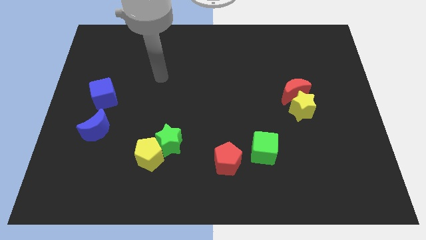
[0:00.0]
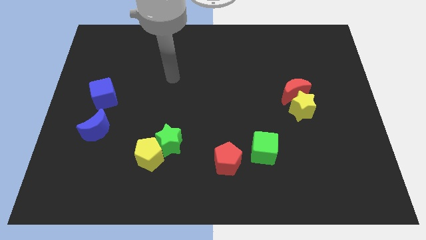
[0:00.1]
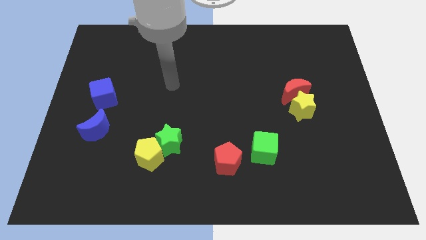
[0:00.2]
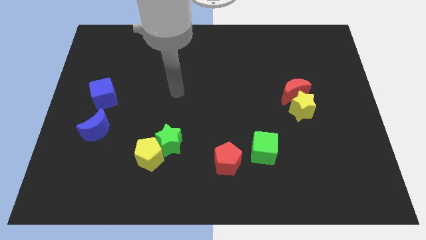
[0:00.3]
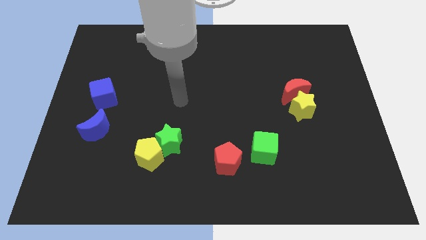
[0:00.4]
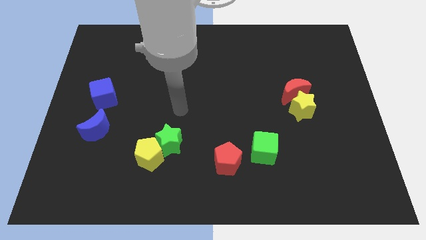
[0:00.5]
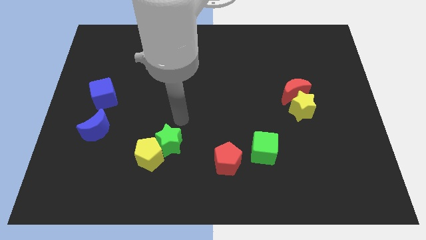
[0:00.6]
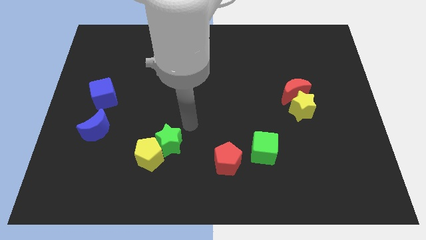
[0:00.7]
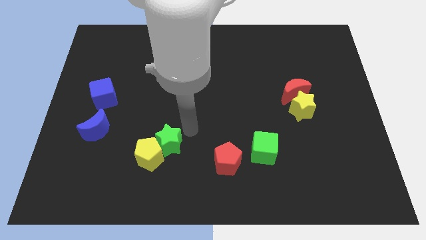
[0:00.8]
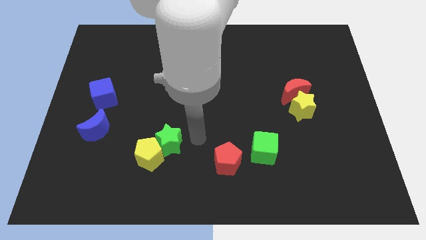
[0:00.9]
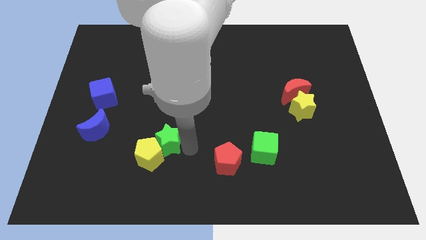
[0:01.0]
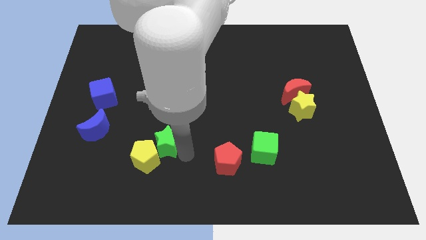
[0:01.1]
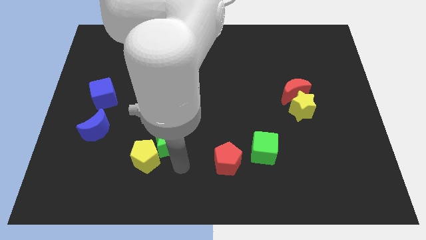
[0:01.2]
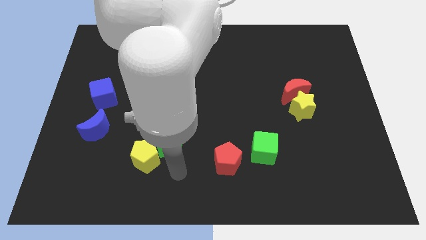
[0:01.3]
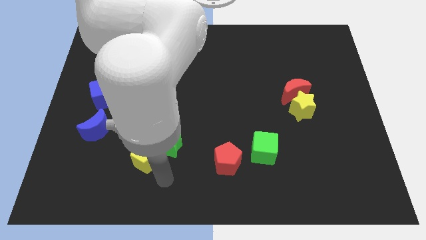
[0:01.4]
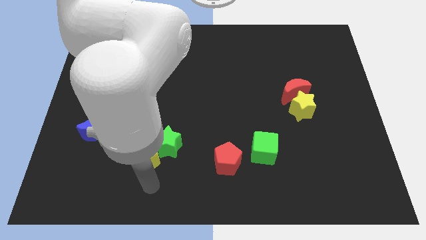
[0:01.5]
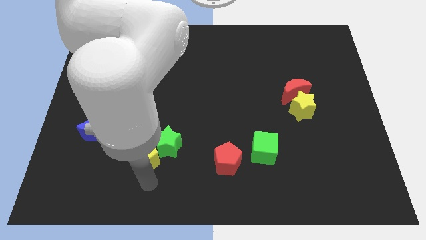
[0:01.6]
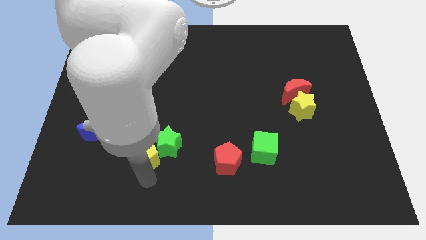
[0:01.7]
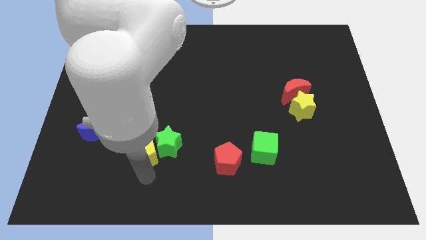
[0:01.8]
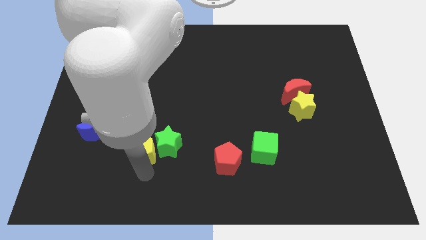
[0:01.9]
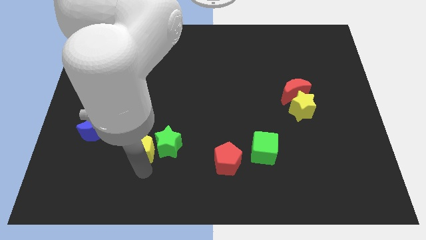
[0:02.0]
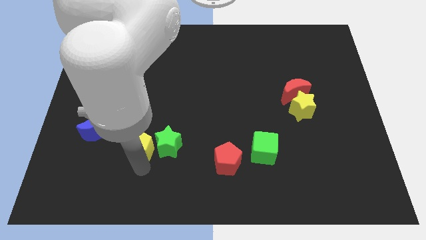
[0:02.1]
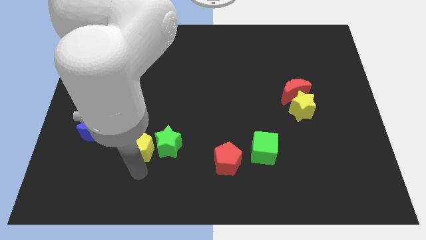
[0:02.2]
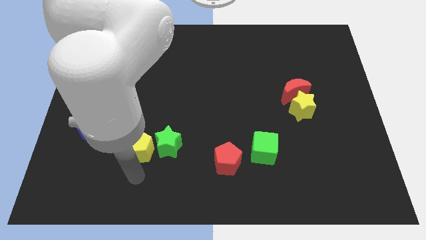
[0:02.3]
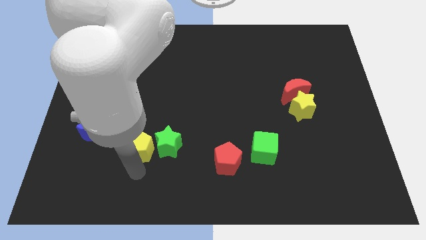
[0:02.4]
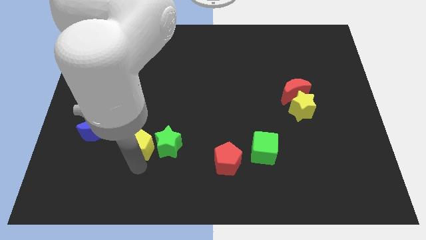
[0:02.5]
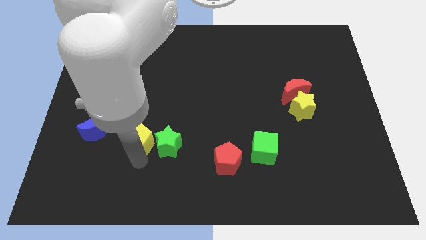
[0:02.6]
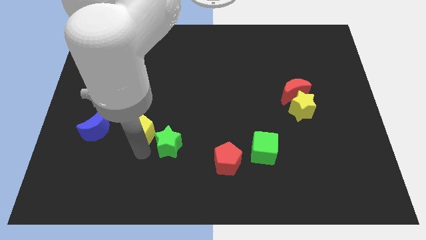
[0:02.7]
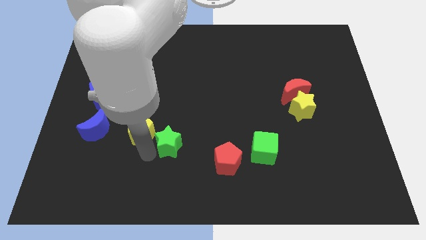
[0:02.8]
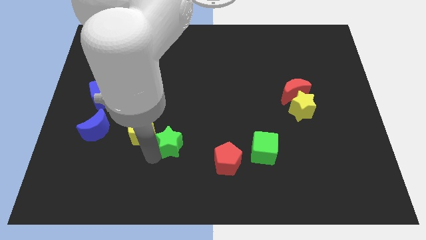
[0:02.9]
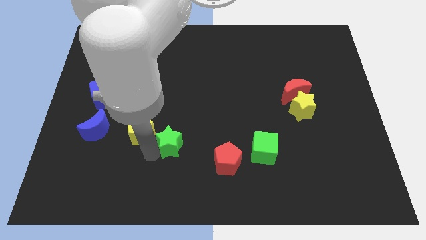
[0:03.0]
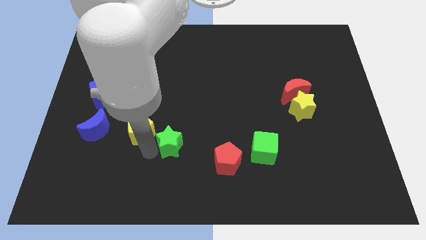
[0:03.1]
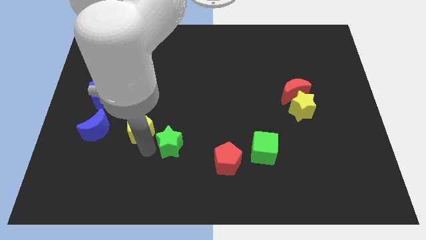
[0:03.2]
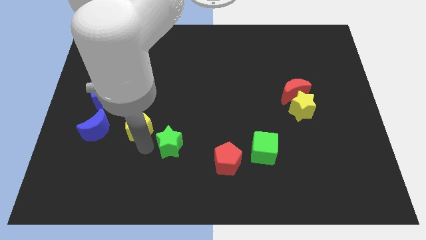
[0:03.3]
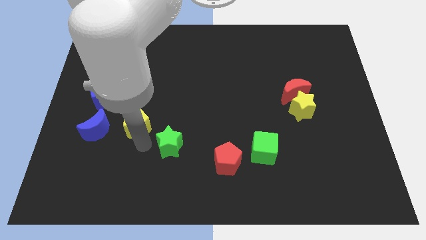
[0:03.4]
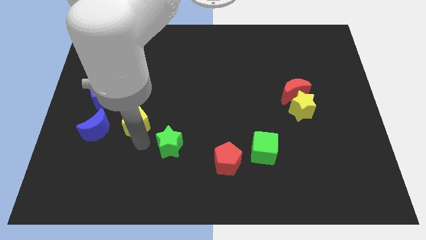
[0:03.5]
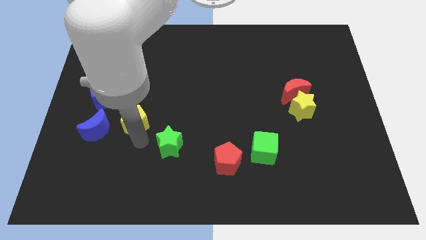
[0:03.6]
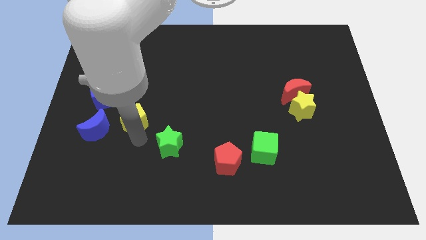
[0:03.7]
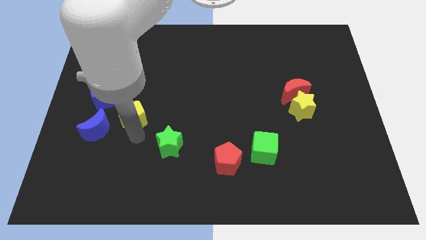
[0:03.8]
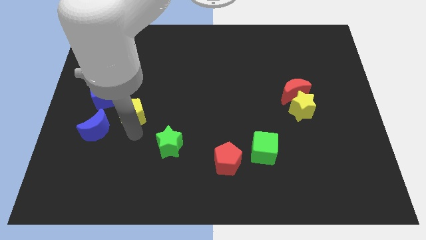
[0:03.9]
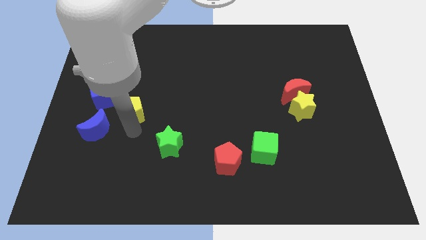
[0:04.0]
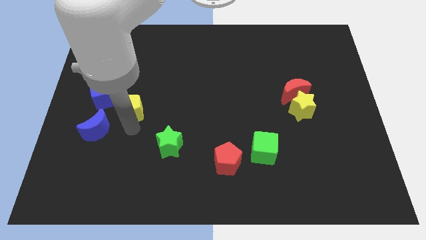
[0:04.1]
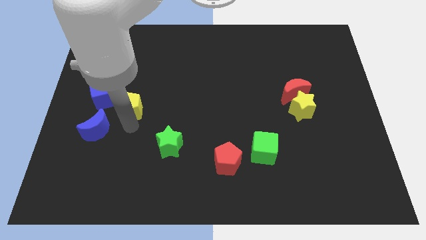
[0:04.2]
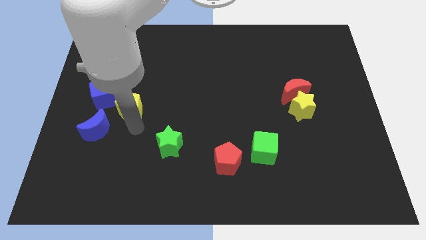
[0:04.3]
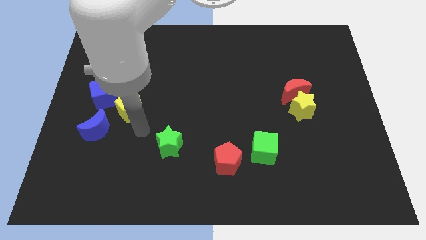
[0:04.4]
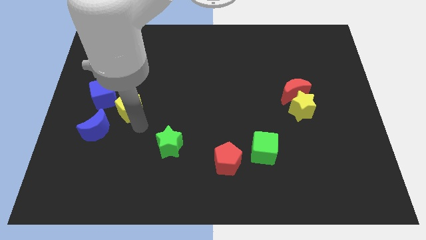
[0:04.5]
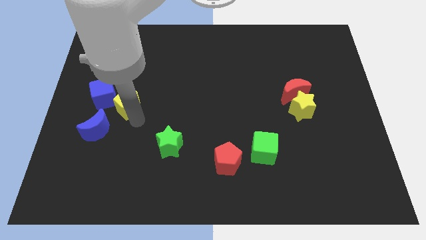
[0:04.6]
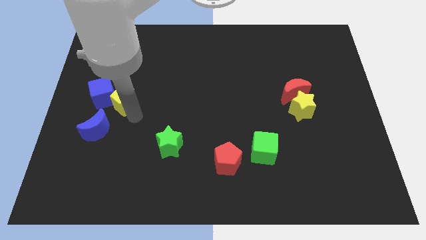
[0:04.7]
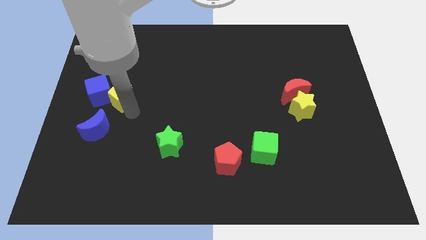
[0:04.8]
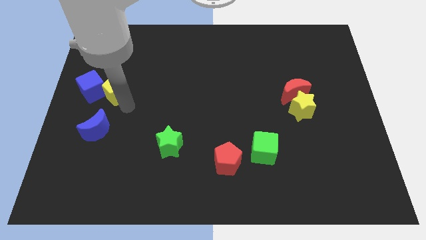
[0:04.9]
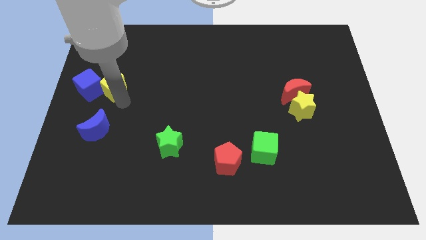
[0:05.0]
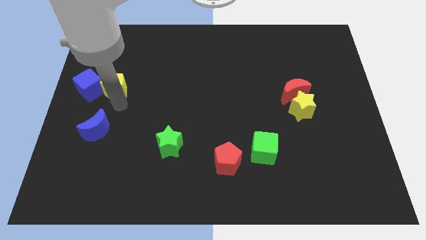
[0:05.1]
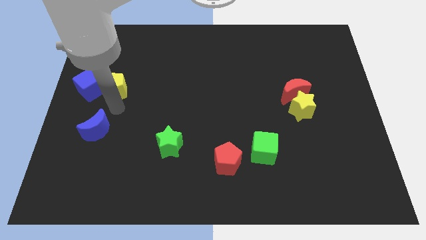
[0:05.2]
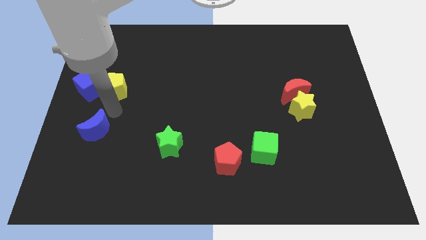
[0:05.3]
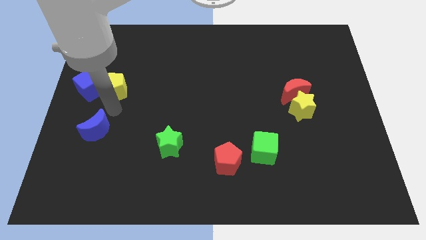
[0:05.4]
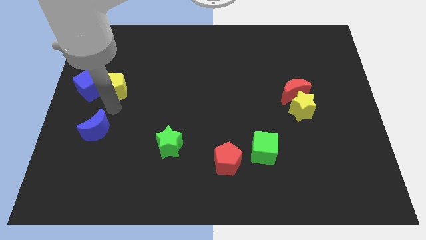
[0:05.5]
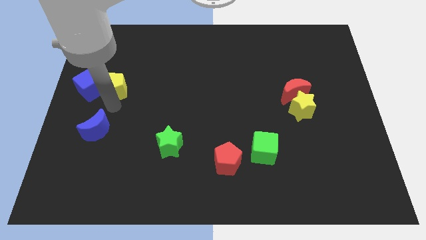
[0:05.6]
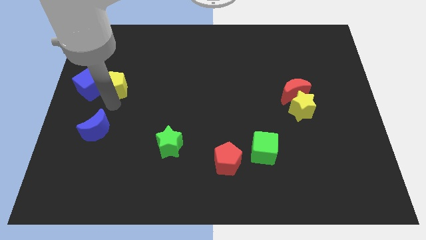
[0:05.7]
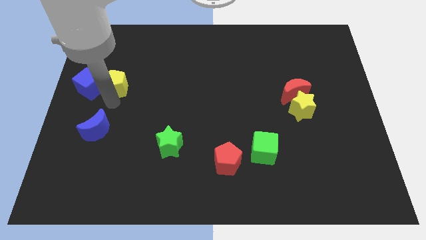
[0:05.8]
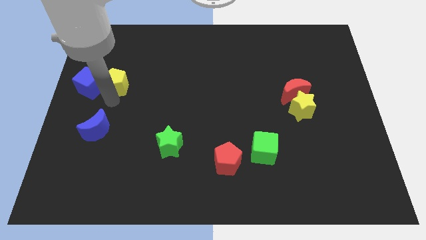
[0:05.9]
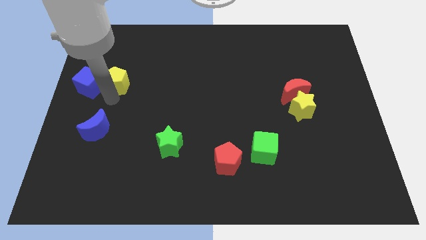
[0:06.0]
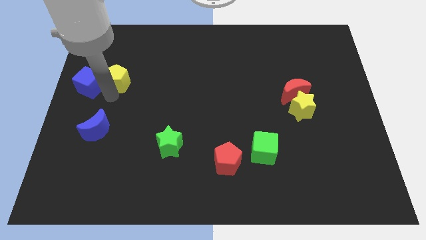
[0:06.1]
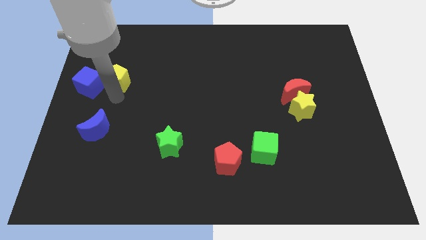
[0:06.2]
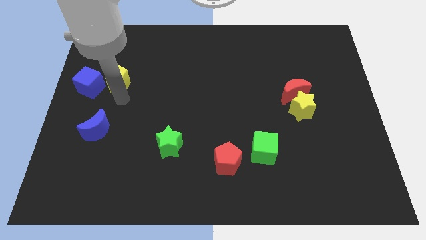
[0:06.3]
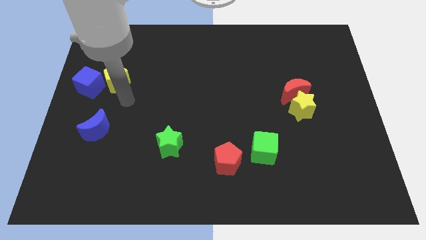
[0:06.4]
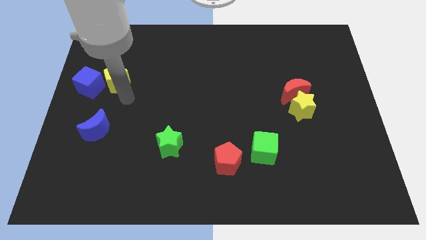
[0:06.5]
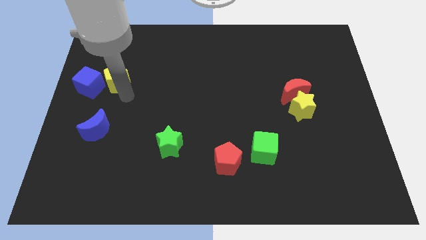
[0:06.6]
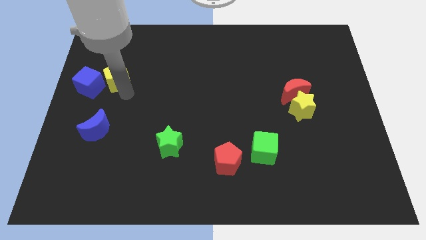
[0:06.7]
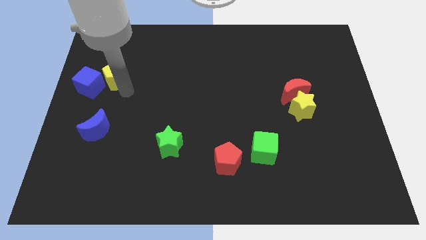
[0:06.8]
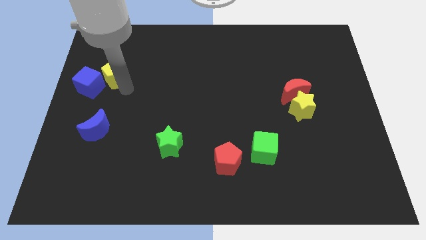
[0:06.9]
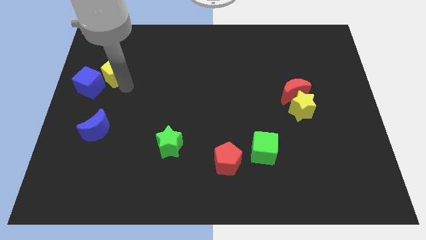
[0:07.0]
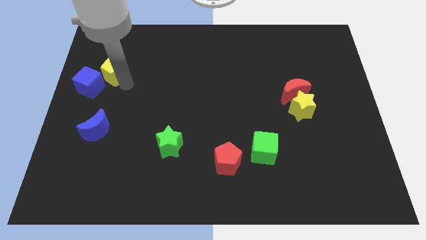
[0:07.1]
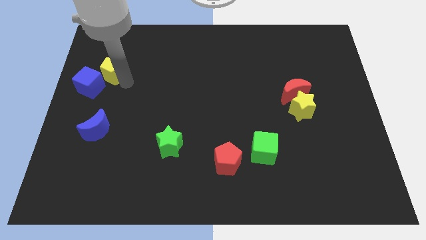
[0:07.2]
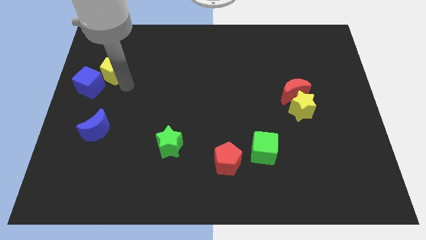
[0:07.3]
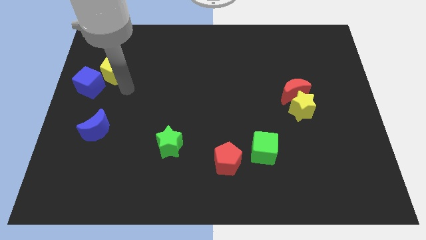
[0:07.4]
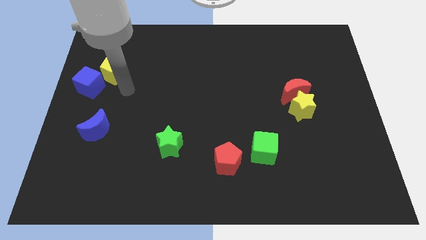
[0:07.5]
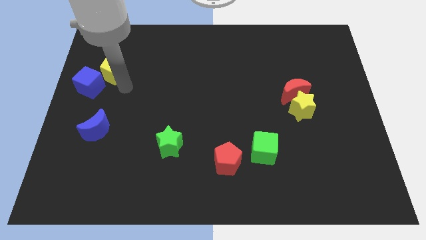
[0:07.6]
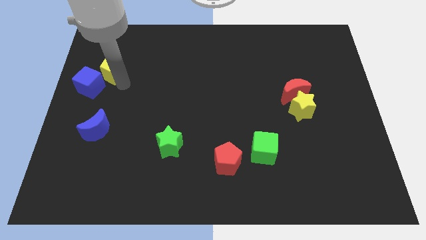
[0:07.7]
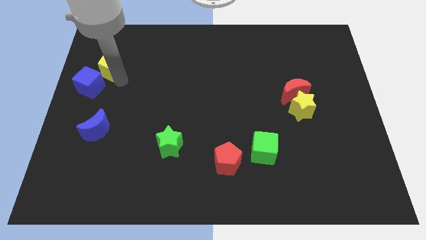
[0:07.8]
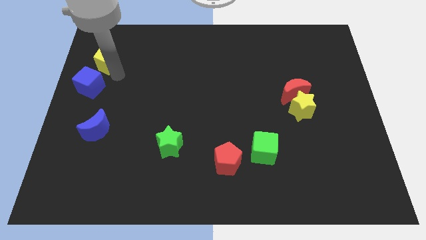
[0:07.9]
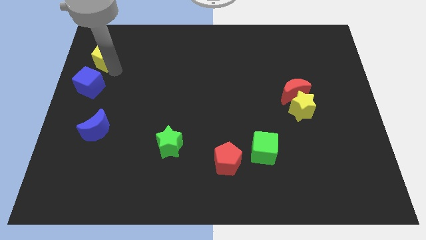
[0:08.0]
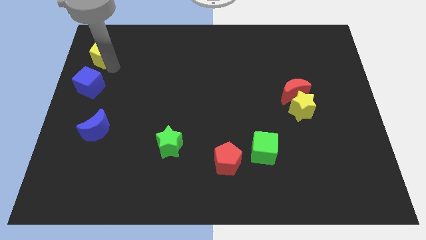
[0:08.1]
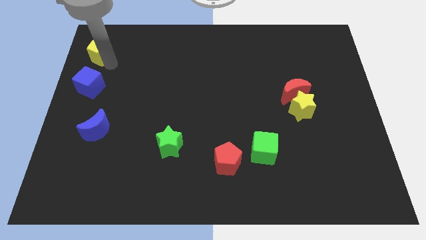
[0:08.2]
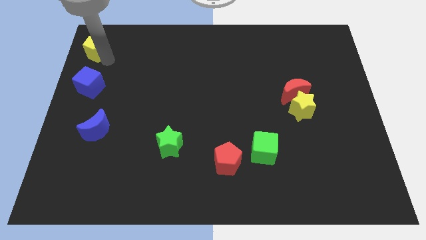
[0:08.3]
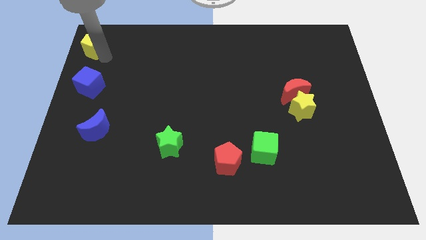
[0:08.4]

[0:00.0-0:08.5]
put the yellow pentagon to the top left of the board
